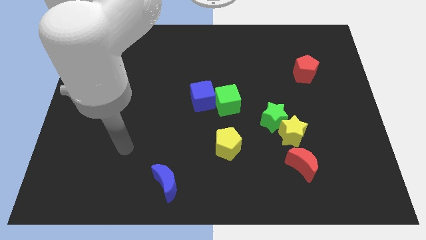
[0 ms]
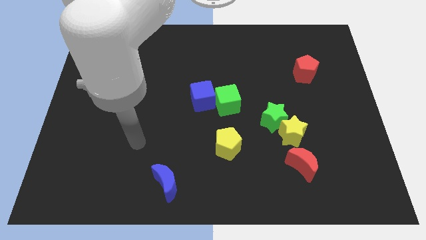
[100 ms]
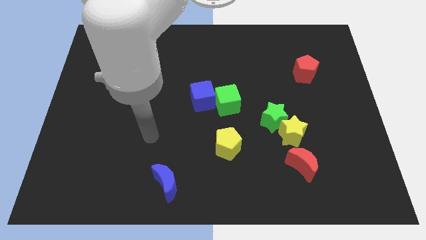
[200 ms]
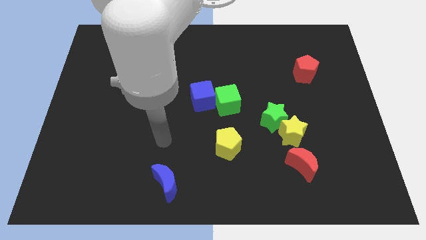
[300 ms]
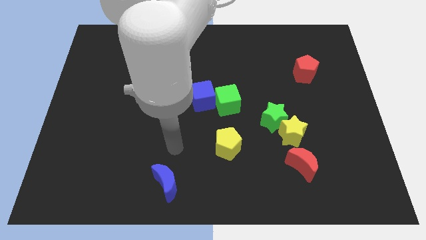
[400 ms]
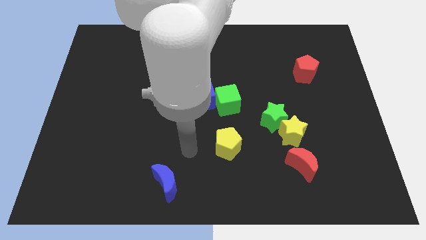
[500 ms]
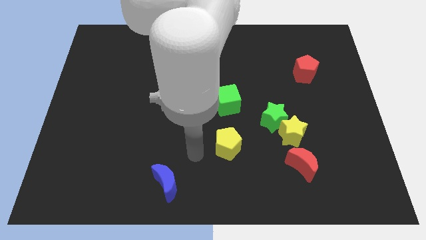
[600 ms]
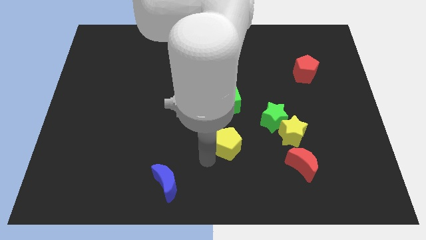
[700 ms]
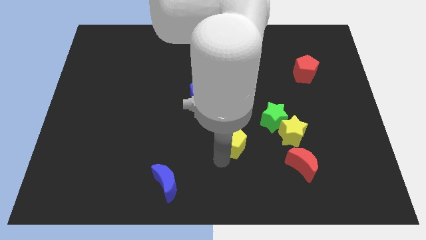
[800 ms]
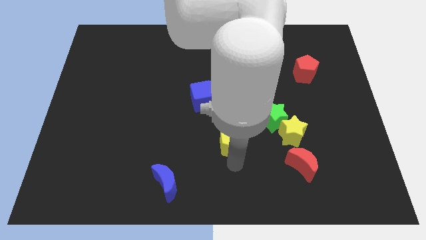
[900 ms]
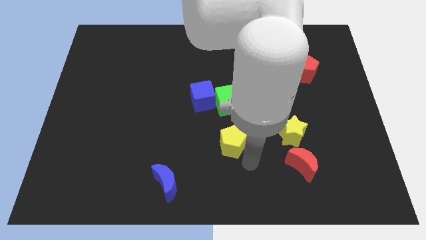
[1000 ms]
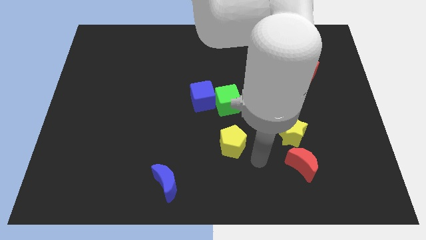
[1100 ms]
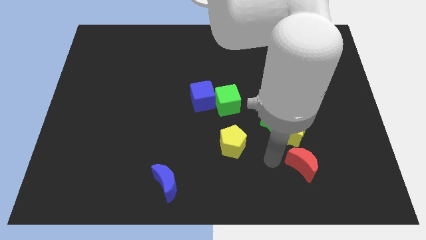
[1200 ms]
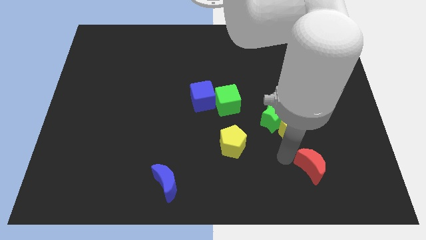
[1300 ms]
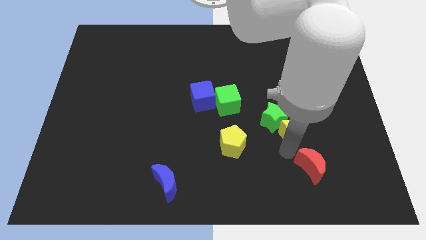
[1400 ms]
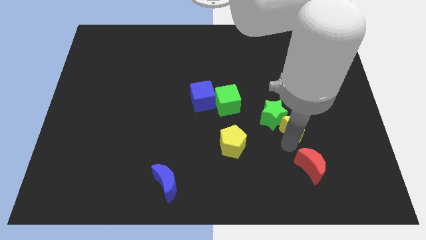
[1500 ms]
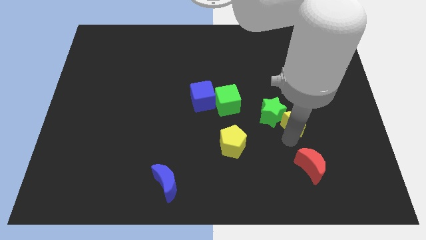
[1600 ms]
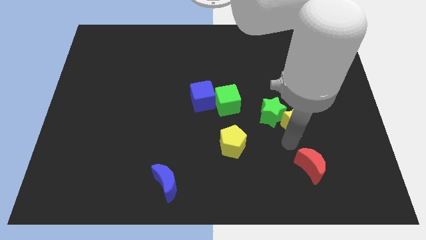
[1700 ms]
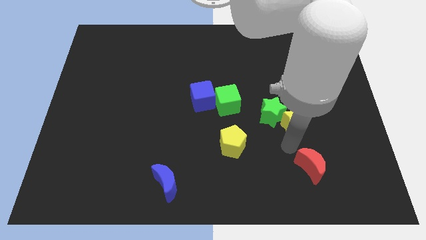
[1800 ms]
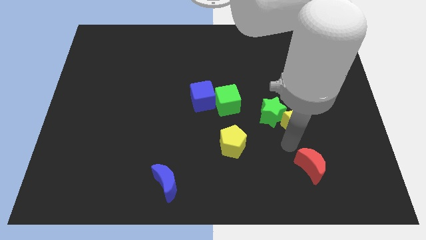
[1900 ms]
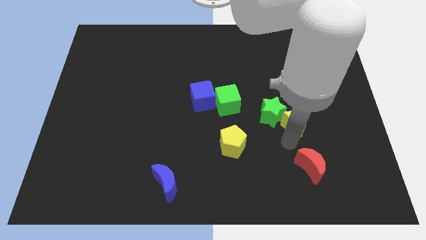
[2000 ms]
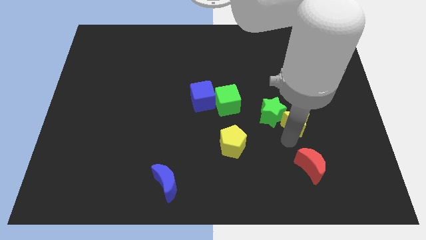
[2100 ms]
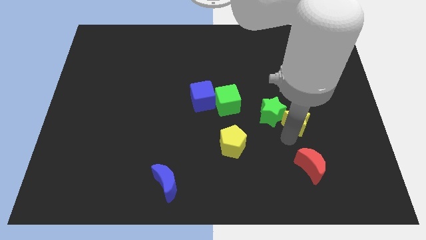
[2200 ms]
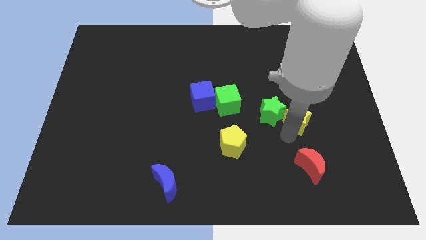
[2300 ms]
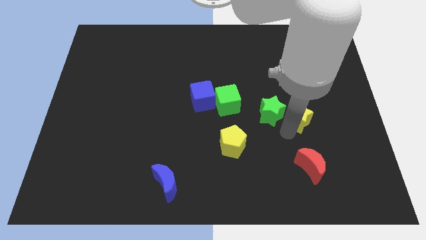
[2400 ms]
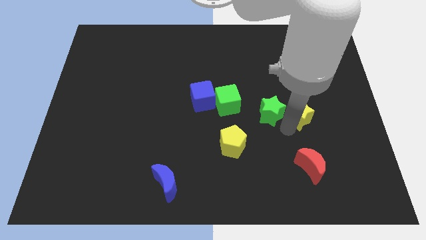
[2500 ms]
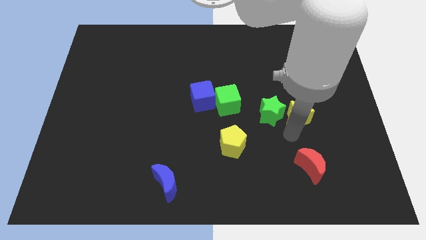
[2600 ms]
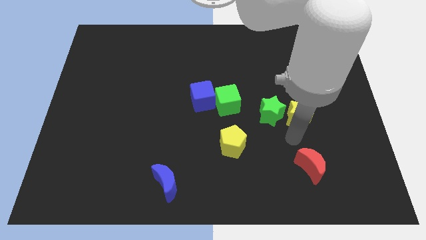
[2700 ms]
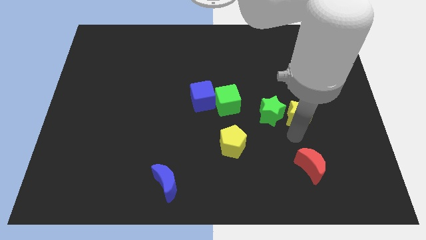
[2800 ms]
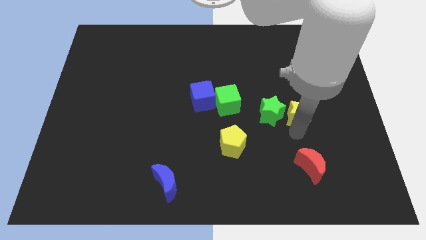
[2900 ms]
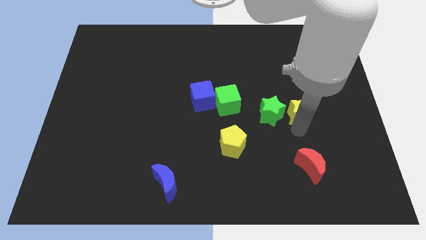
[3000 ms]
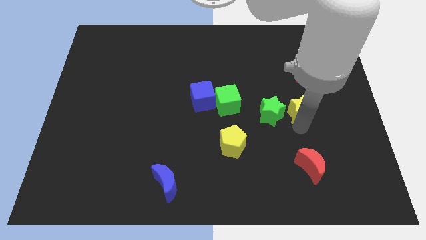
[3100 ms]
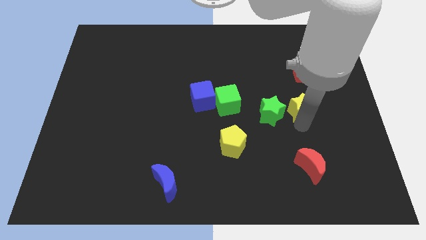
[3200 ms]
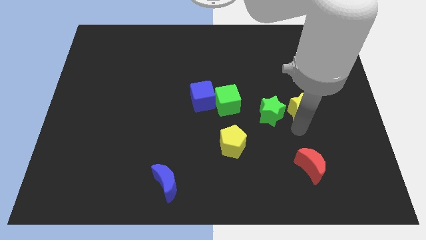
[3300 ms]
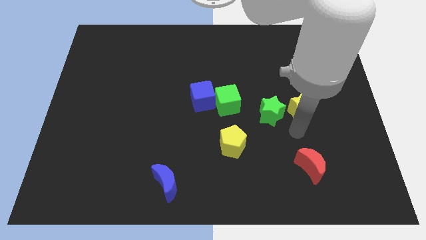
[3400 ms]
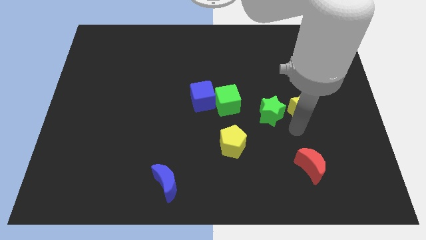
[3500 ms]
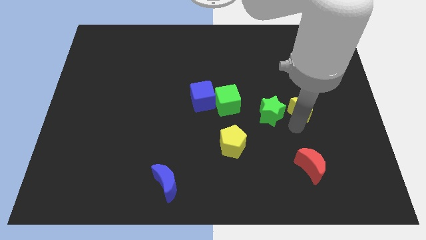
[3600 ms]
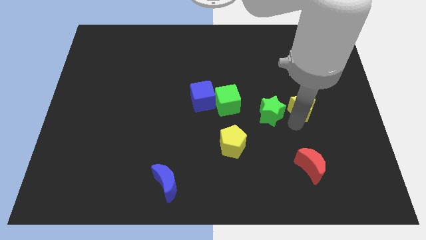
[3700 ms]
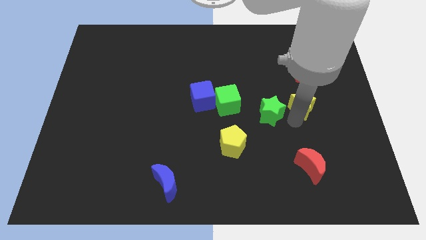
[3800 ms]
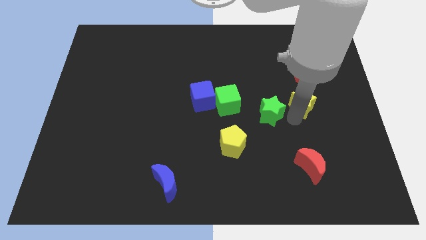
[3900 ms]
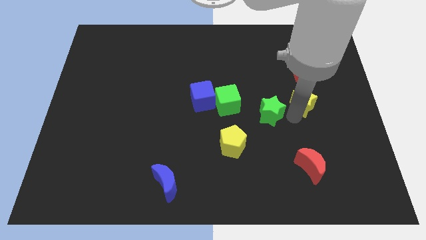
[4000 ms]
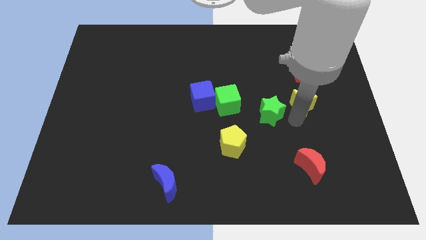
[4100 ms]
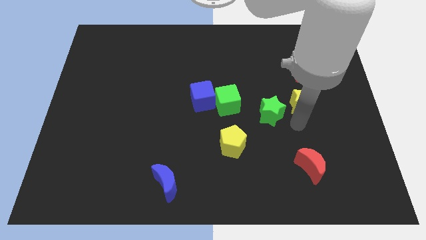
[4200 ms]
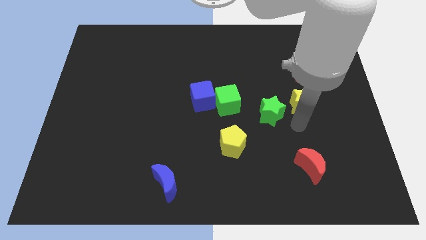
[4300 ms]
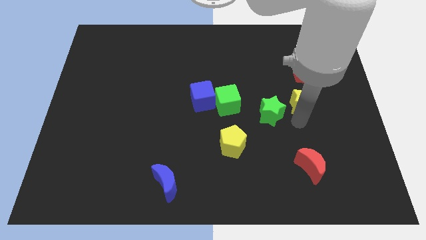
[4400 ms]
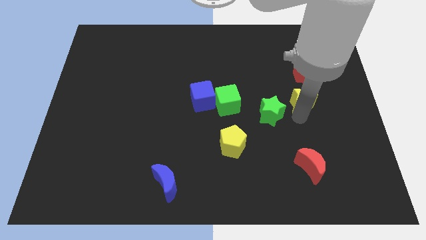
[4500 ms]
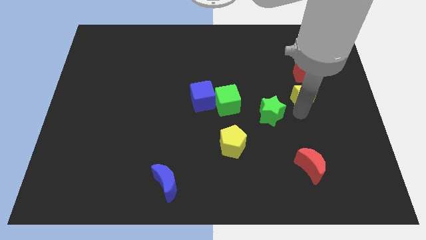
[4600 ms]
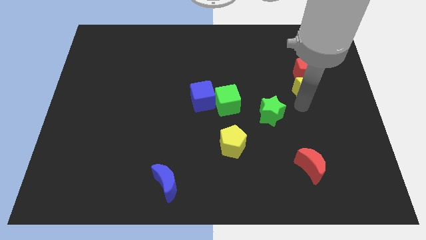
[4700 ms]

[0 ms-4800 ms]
slide the yellow star to the red pentagon

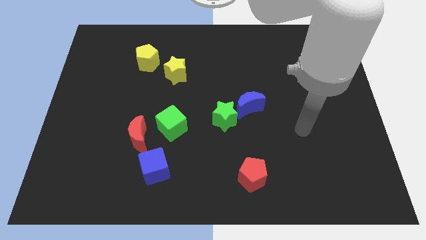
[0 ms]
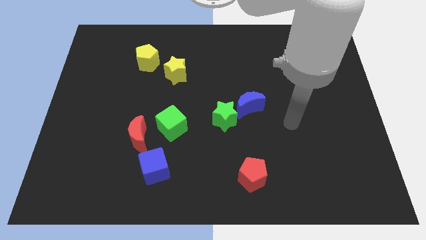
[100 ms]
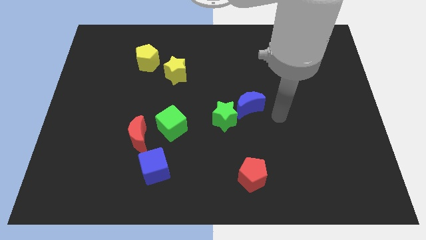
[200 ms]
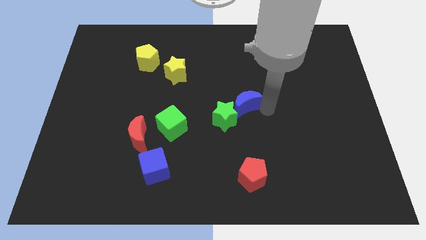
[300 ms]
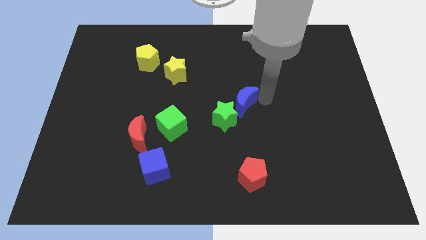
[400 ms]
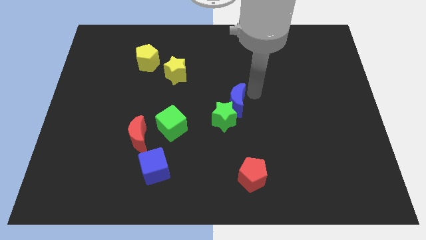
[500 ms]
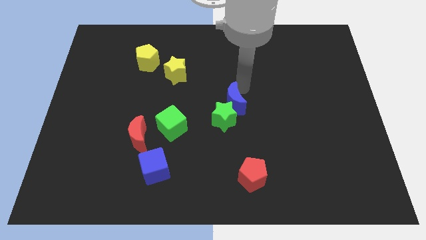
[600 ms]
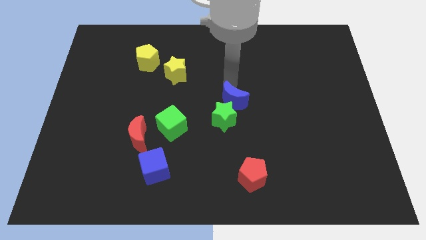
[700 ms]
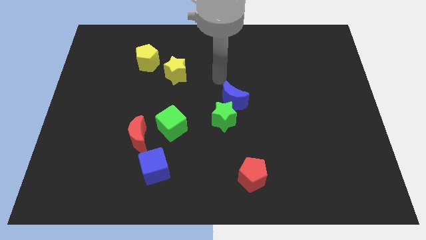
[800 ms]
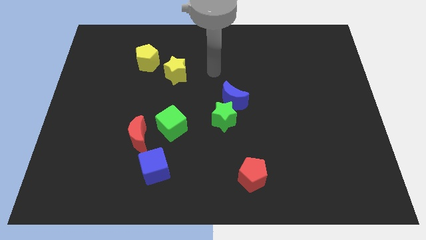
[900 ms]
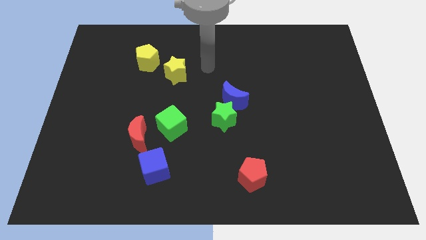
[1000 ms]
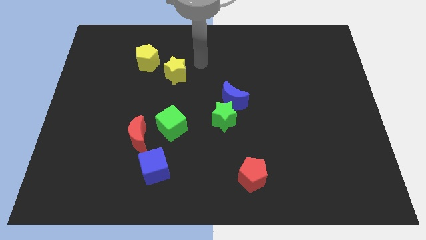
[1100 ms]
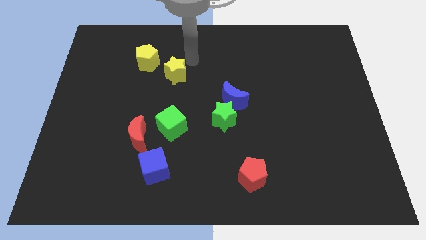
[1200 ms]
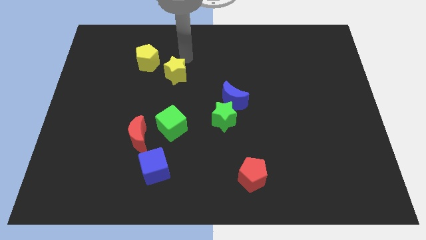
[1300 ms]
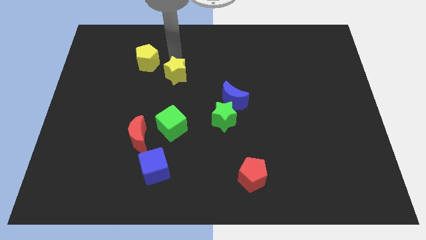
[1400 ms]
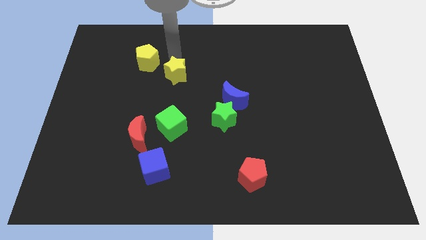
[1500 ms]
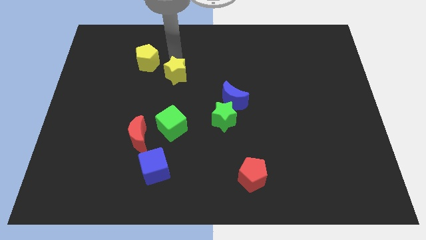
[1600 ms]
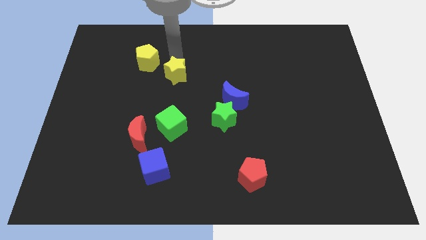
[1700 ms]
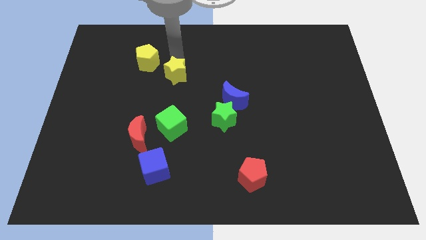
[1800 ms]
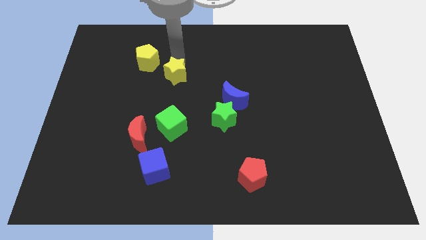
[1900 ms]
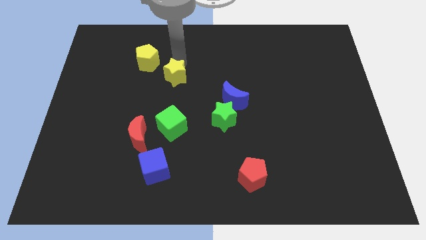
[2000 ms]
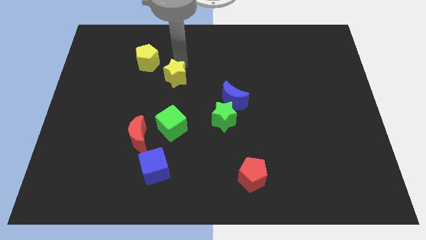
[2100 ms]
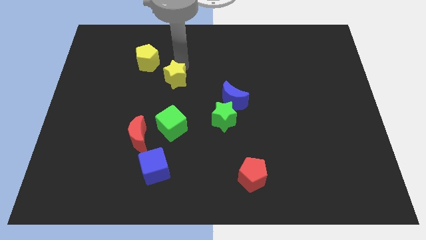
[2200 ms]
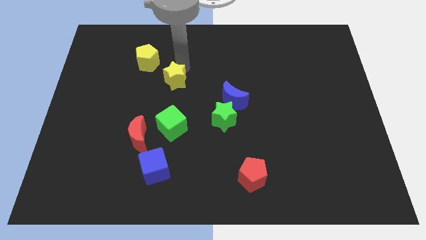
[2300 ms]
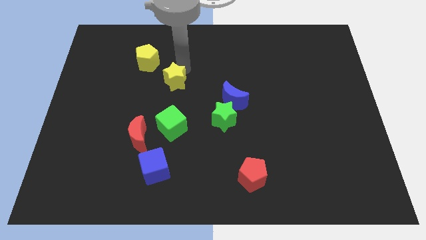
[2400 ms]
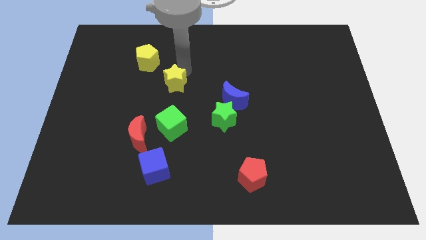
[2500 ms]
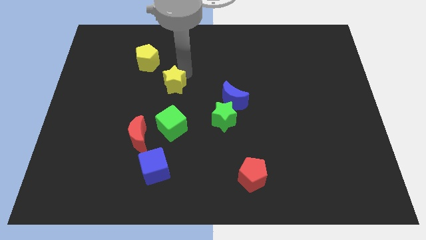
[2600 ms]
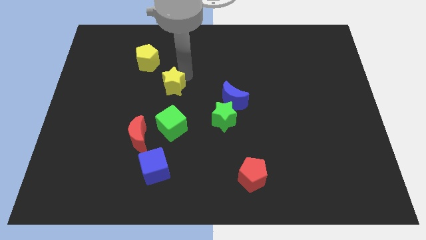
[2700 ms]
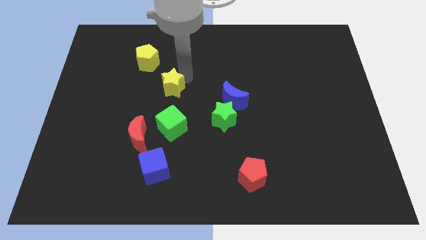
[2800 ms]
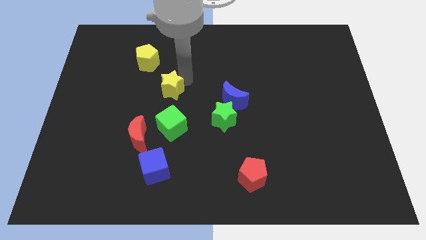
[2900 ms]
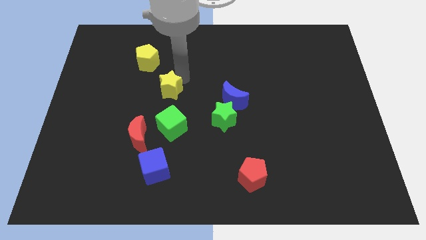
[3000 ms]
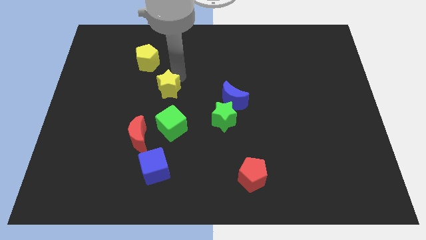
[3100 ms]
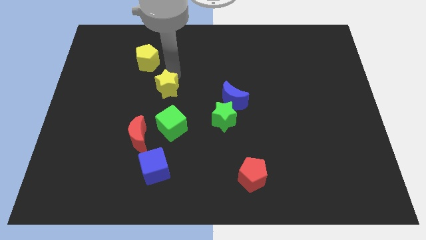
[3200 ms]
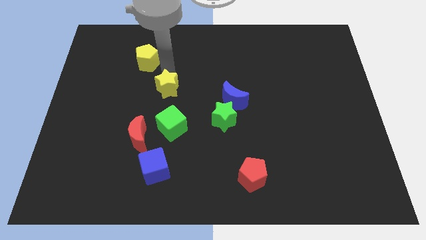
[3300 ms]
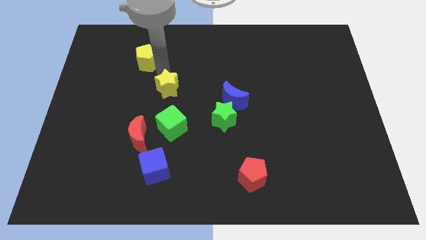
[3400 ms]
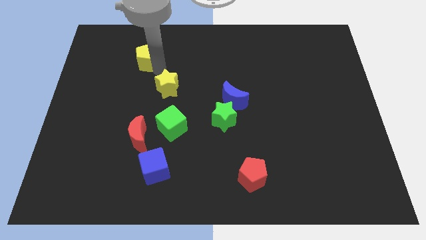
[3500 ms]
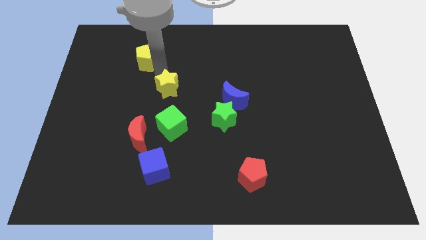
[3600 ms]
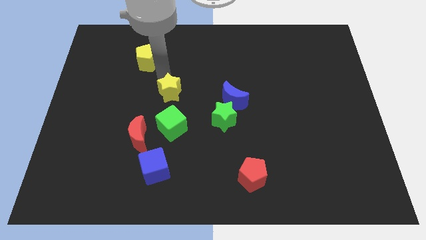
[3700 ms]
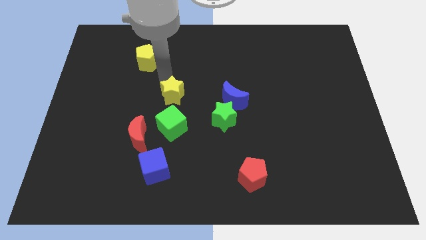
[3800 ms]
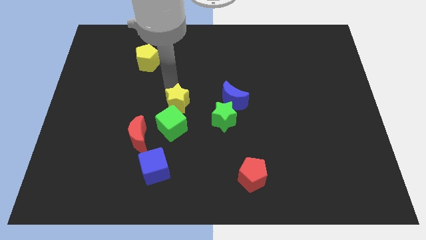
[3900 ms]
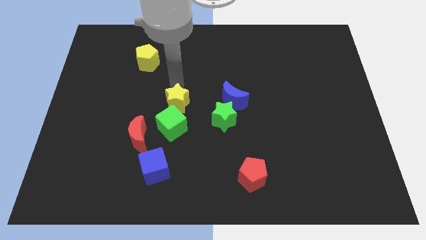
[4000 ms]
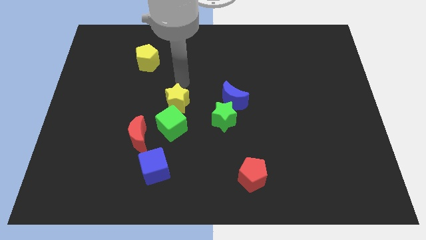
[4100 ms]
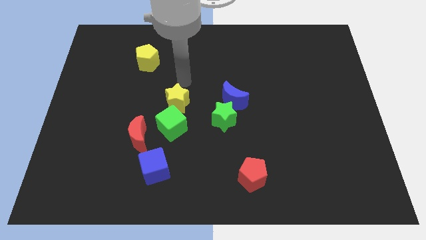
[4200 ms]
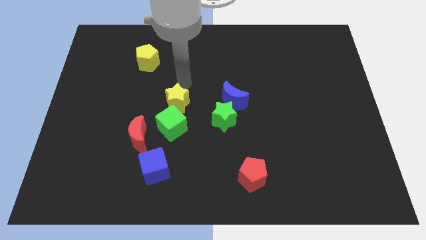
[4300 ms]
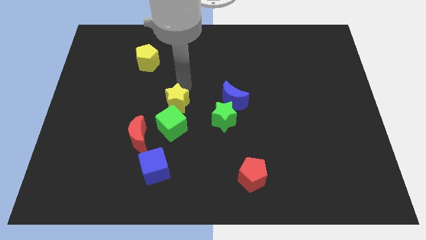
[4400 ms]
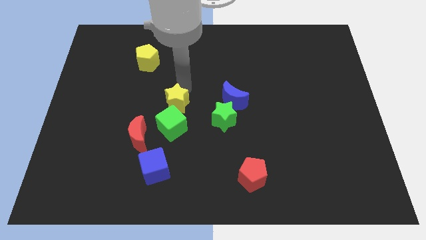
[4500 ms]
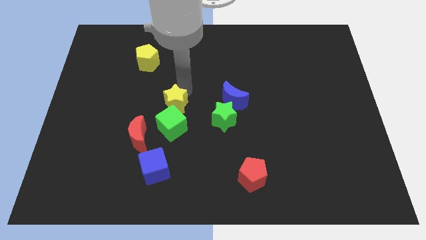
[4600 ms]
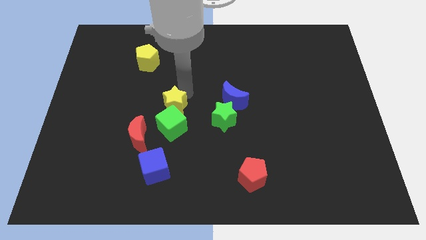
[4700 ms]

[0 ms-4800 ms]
push the yellow star to the green cube
